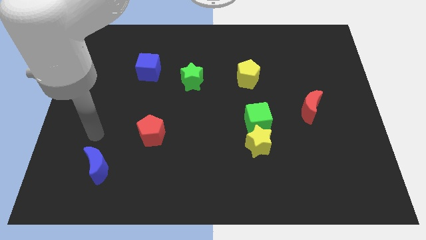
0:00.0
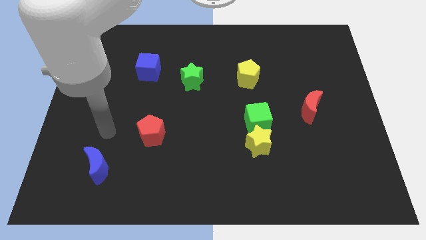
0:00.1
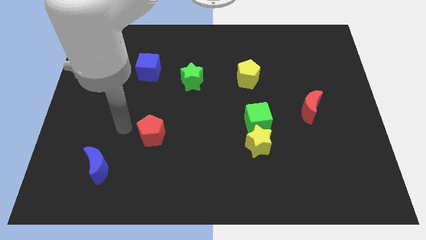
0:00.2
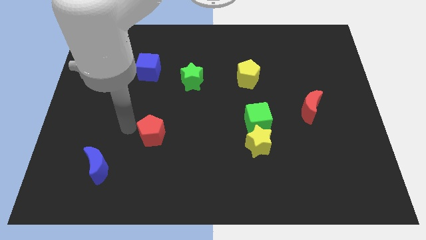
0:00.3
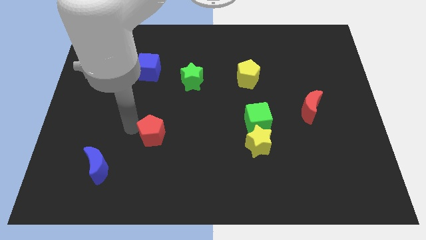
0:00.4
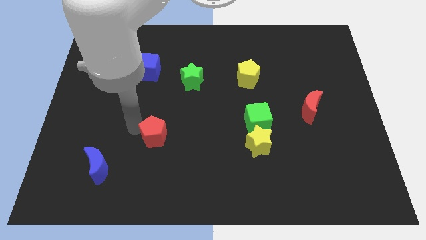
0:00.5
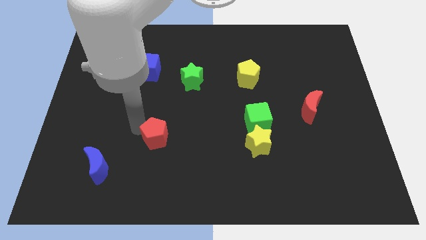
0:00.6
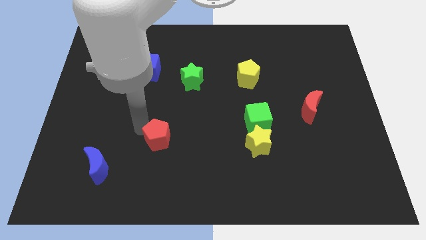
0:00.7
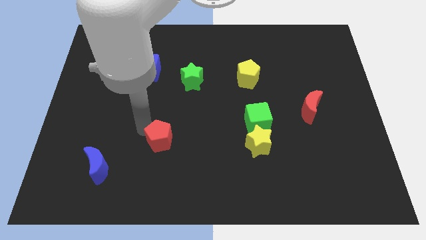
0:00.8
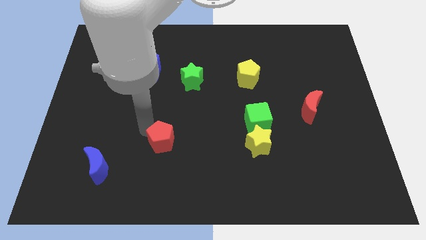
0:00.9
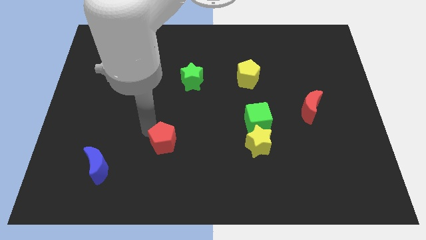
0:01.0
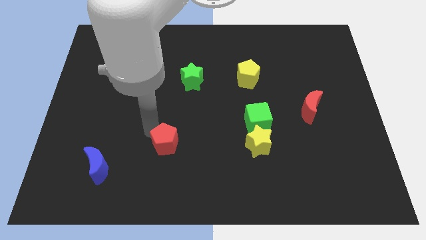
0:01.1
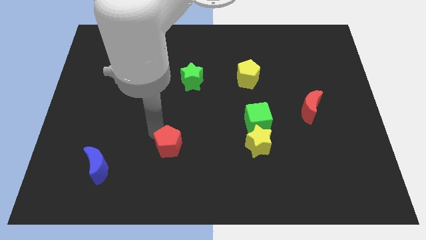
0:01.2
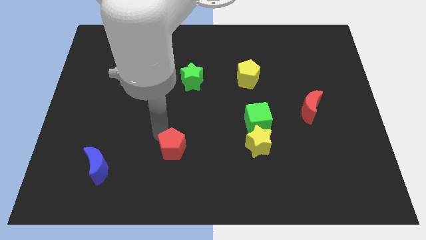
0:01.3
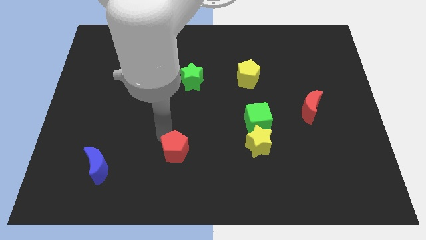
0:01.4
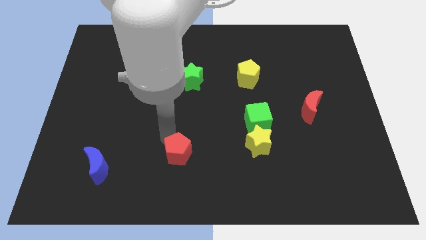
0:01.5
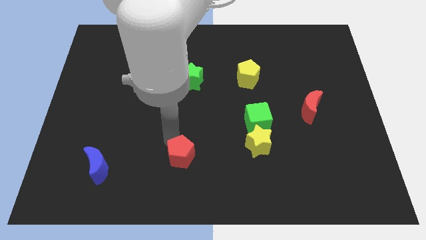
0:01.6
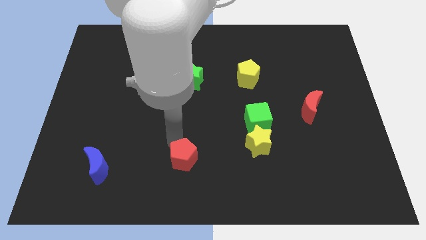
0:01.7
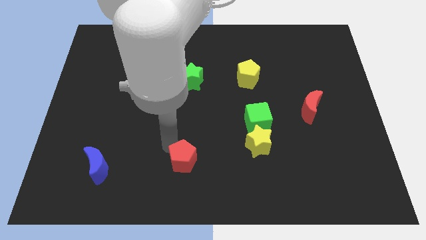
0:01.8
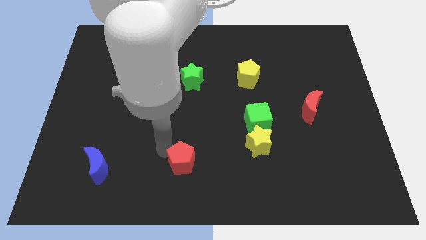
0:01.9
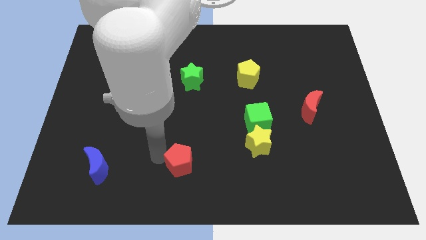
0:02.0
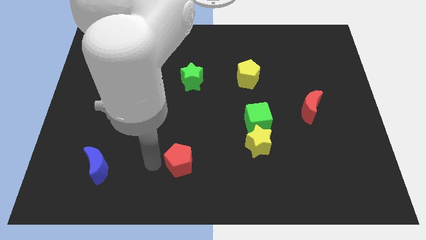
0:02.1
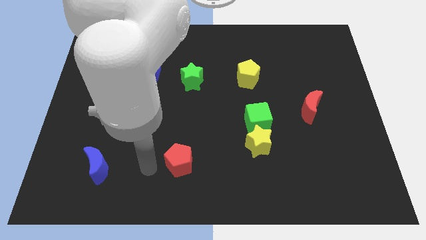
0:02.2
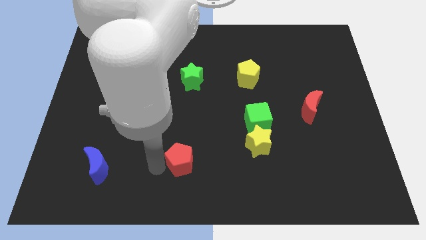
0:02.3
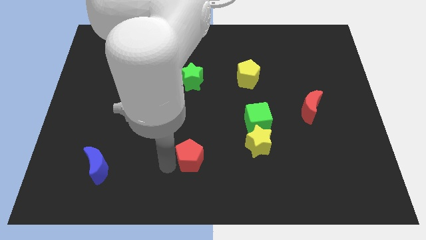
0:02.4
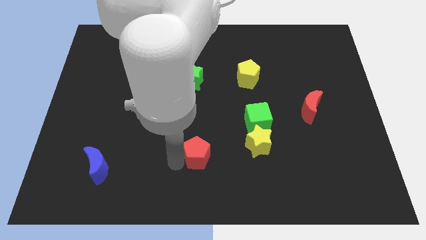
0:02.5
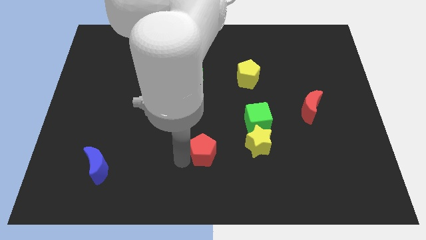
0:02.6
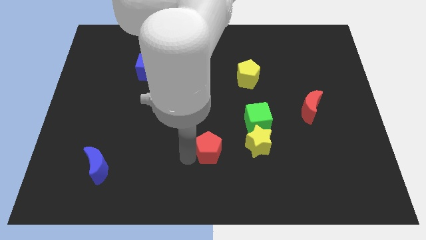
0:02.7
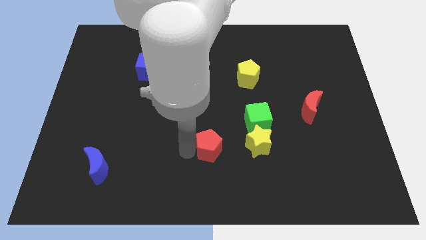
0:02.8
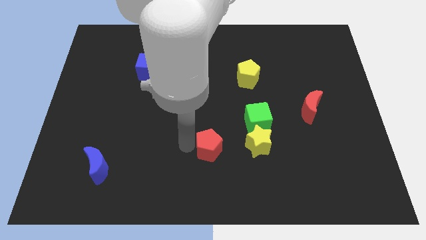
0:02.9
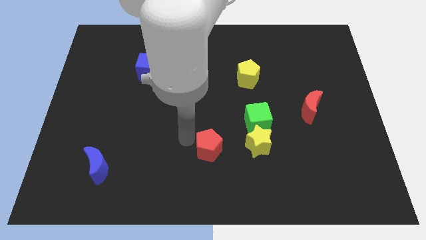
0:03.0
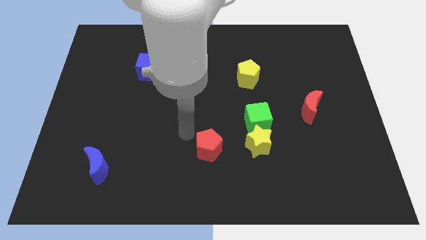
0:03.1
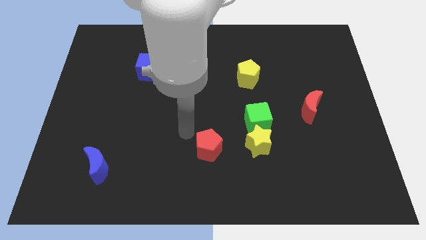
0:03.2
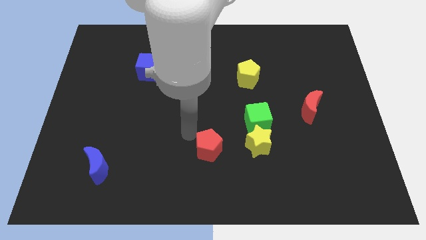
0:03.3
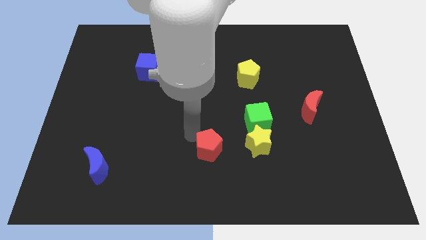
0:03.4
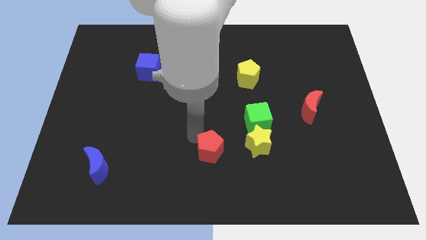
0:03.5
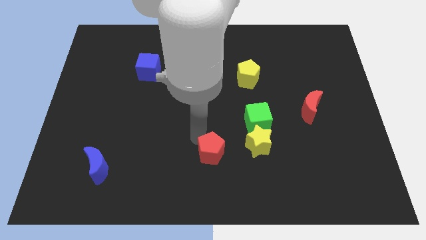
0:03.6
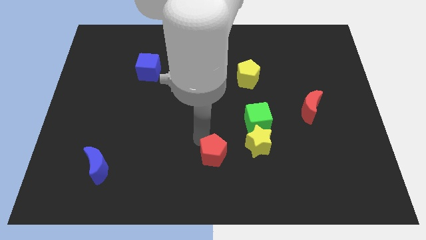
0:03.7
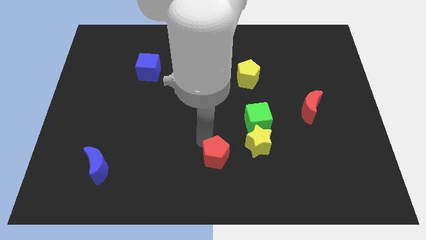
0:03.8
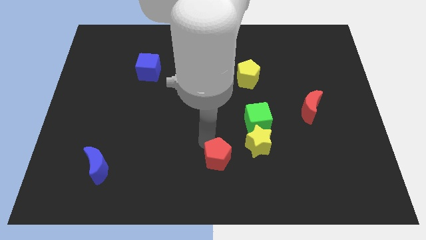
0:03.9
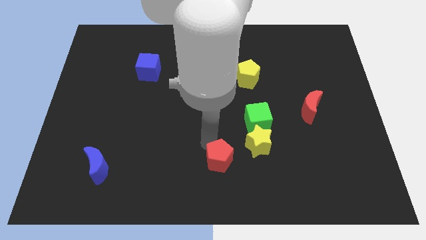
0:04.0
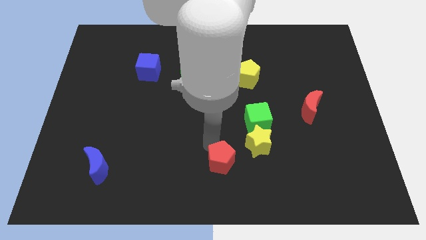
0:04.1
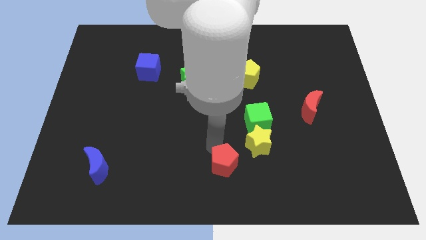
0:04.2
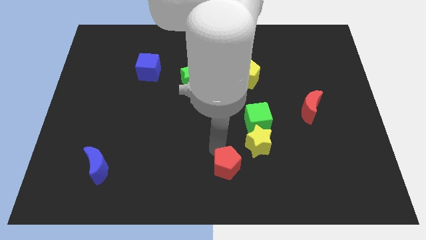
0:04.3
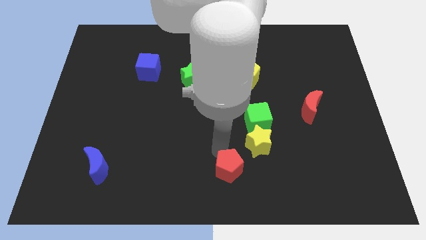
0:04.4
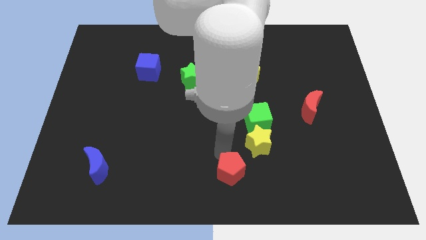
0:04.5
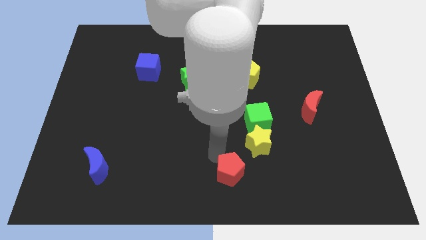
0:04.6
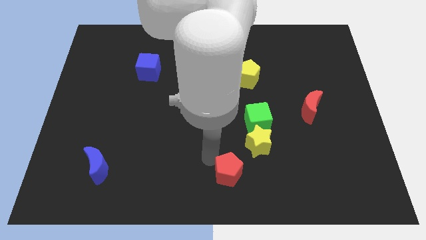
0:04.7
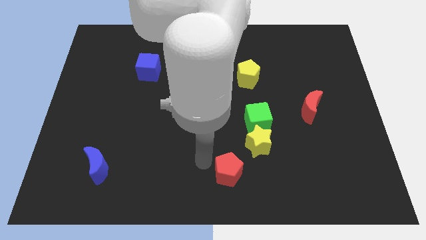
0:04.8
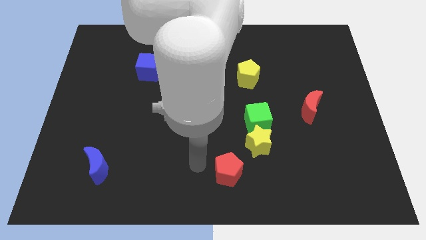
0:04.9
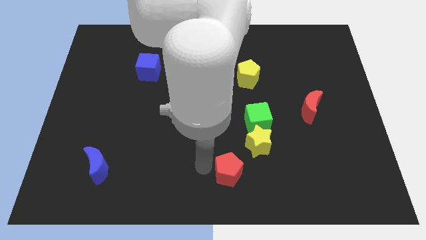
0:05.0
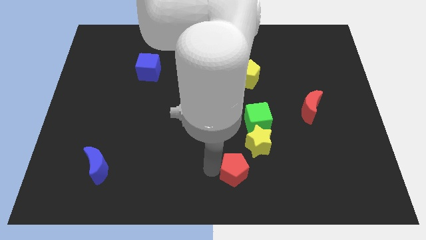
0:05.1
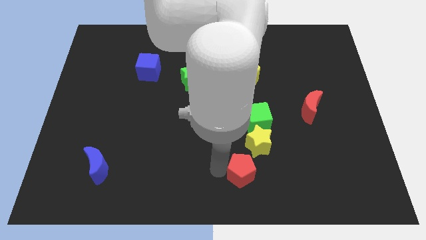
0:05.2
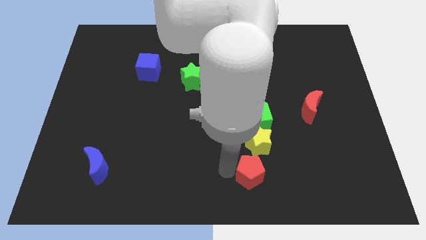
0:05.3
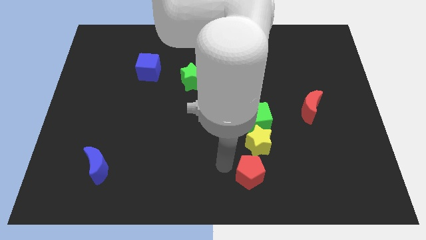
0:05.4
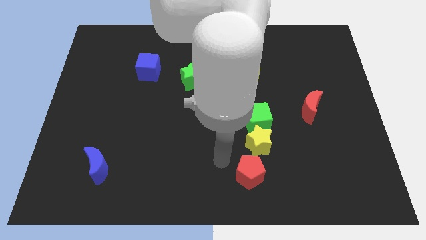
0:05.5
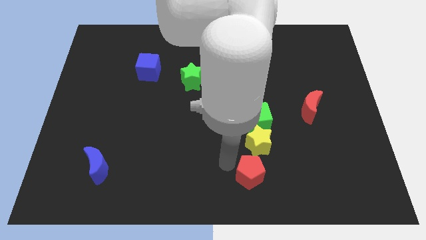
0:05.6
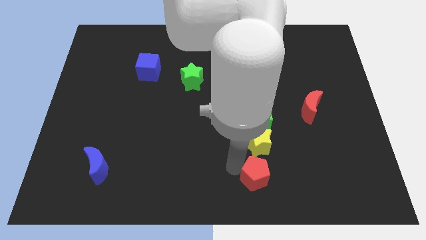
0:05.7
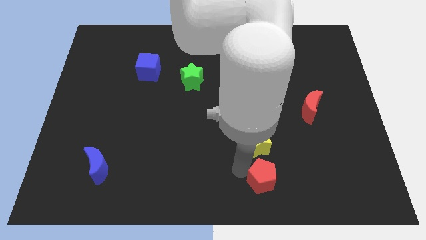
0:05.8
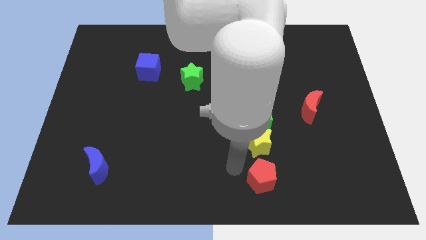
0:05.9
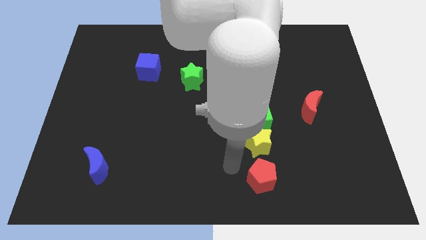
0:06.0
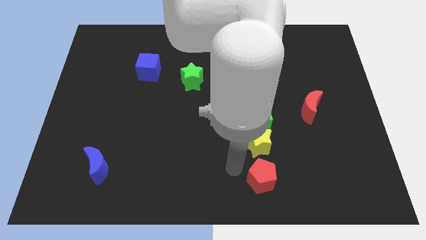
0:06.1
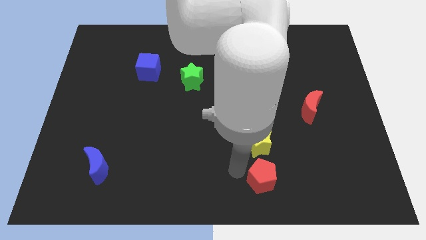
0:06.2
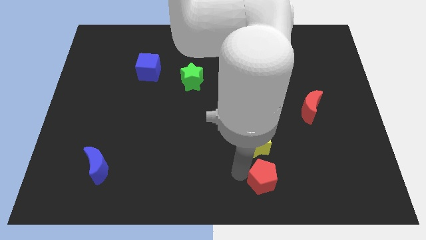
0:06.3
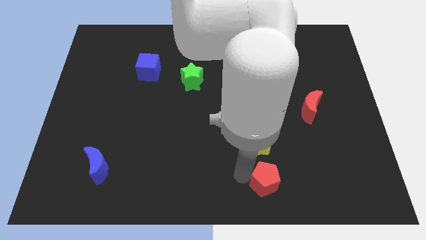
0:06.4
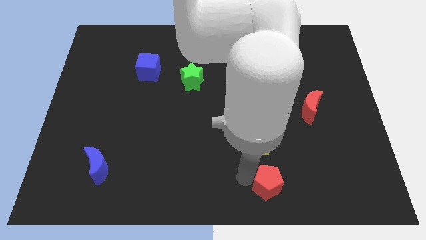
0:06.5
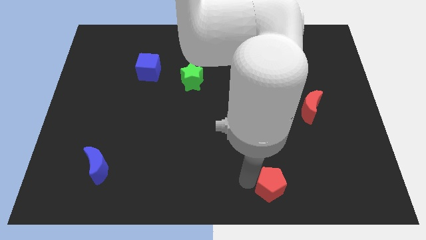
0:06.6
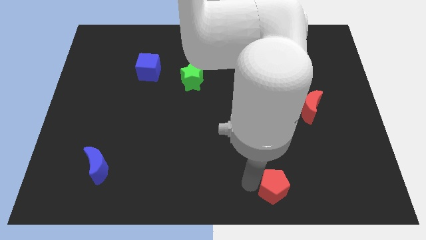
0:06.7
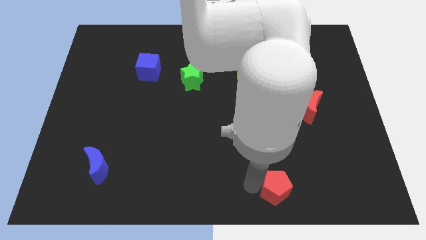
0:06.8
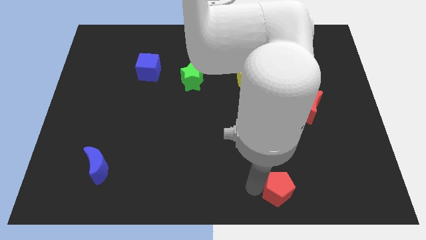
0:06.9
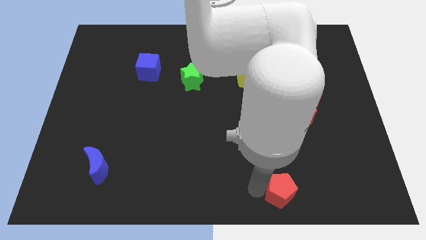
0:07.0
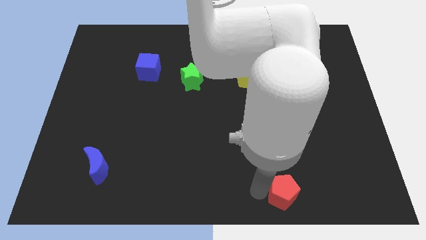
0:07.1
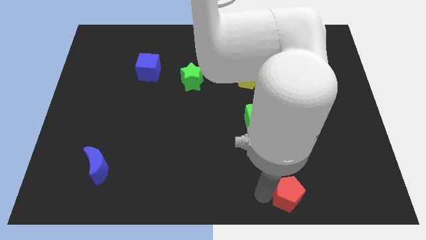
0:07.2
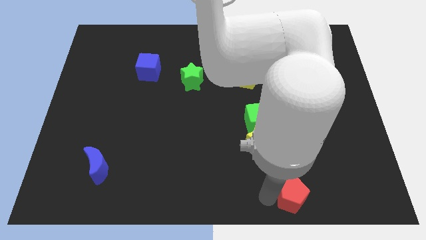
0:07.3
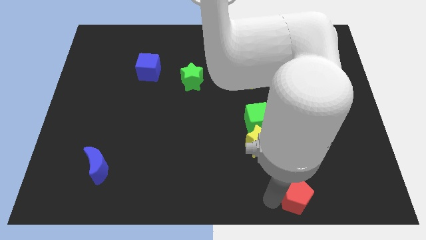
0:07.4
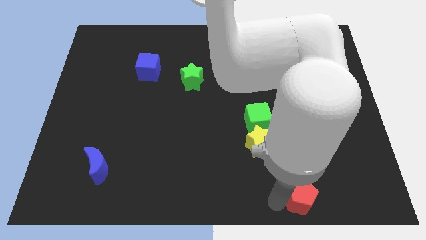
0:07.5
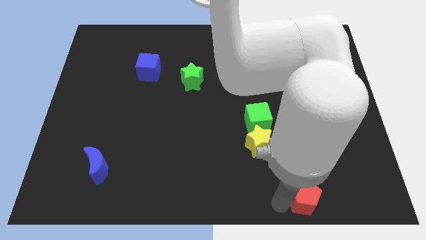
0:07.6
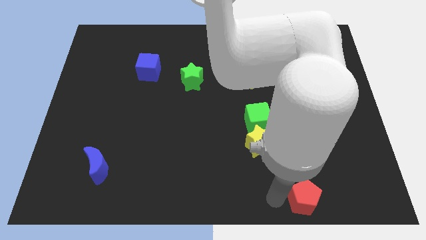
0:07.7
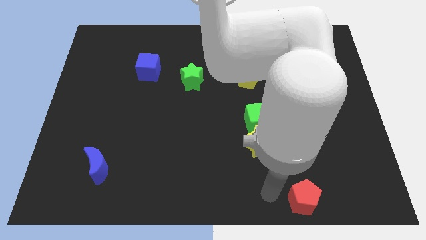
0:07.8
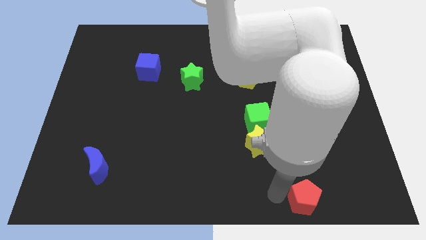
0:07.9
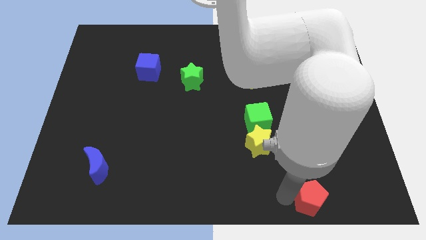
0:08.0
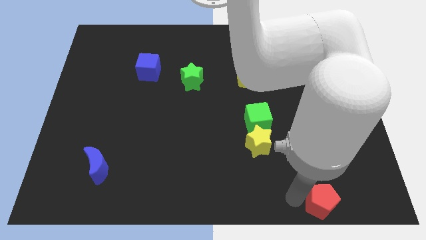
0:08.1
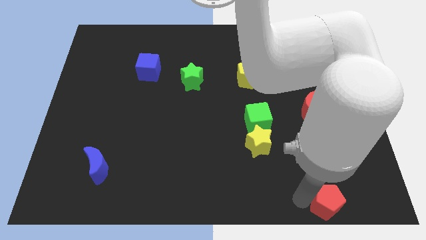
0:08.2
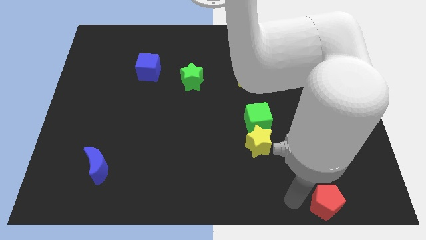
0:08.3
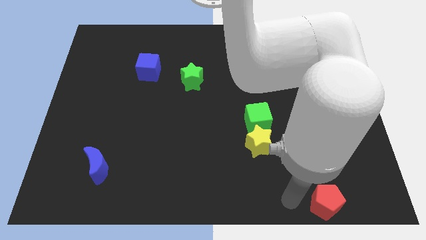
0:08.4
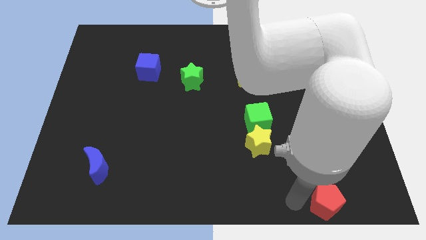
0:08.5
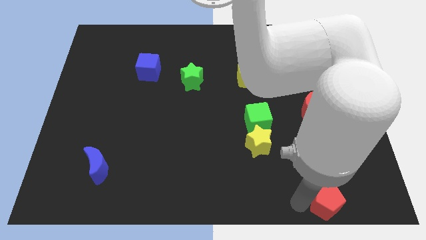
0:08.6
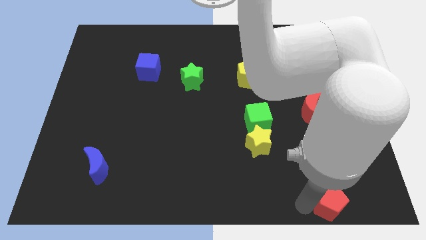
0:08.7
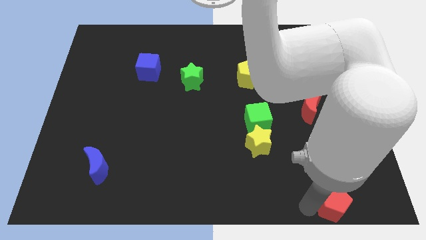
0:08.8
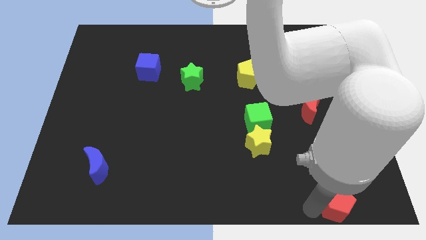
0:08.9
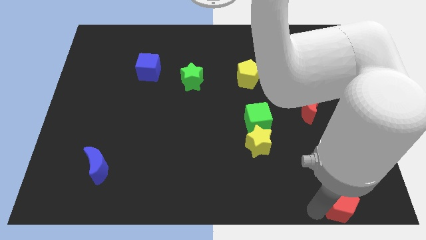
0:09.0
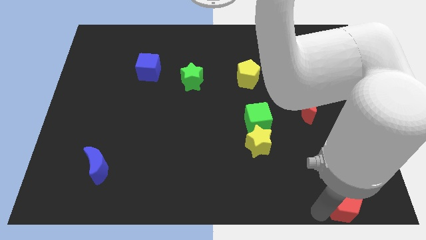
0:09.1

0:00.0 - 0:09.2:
move the red pentagon to the bottom right
